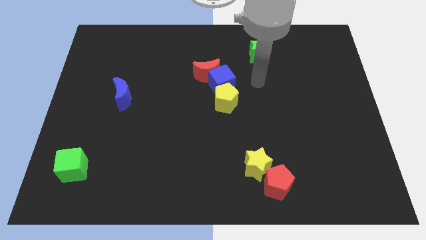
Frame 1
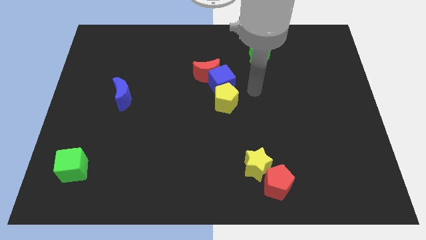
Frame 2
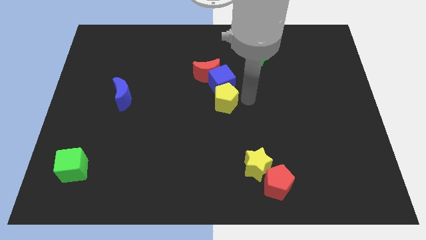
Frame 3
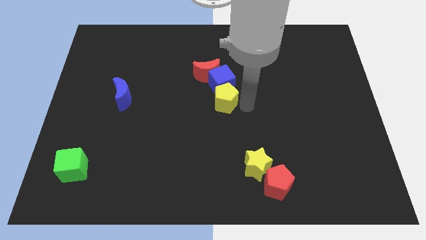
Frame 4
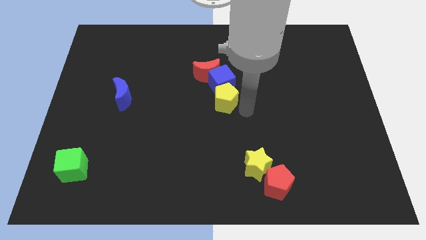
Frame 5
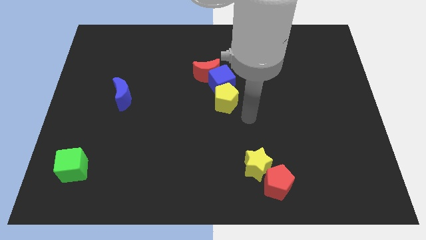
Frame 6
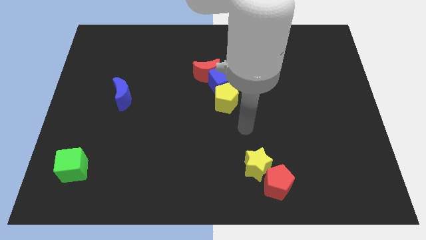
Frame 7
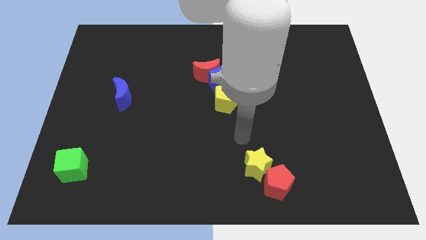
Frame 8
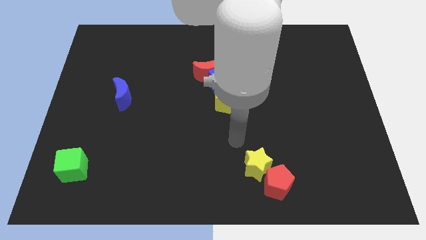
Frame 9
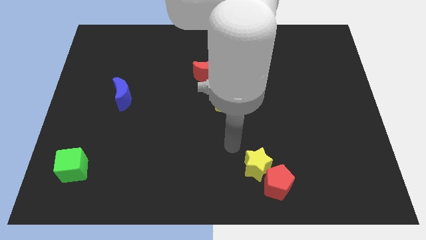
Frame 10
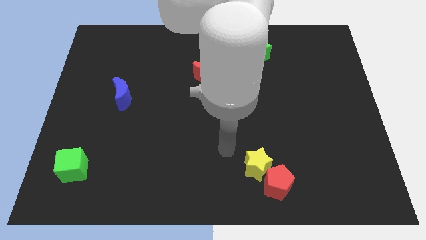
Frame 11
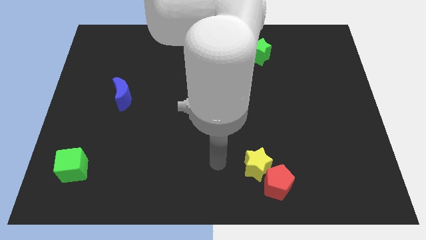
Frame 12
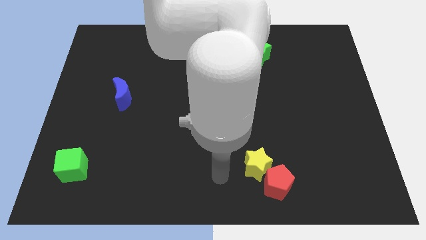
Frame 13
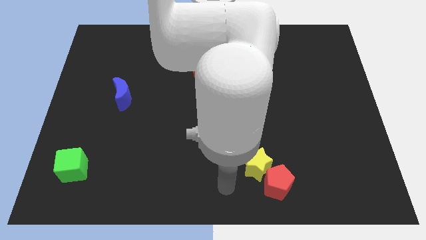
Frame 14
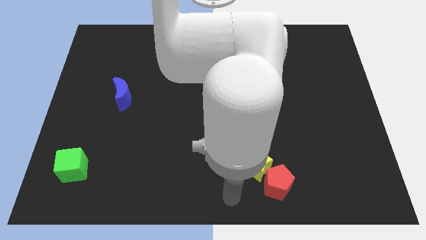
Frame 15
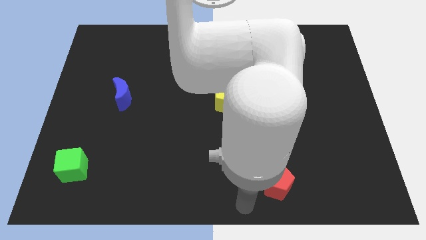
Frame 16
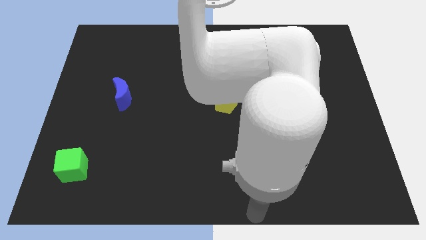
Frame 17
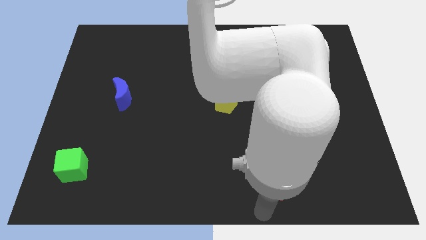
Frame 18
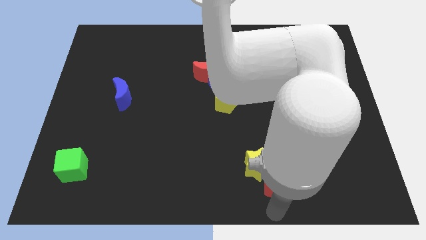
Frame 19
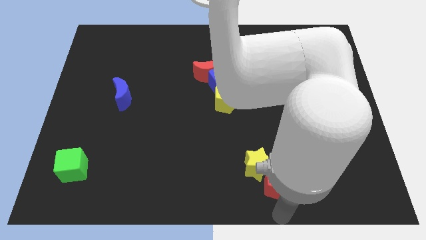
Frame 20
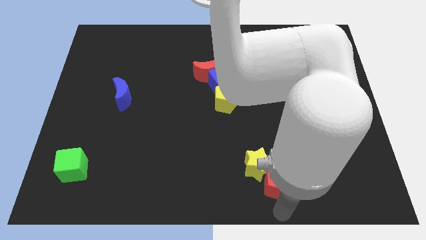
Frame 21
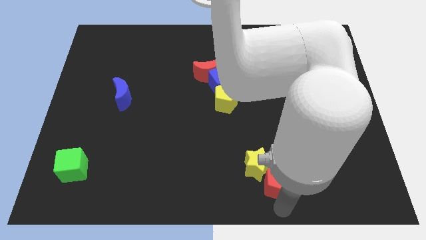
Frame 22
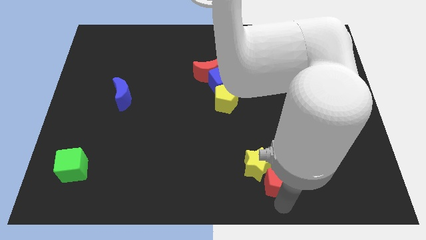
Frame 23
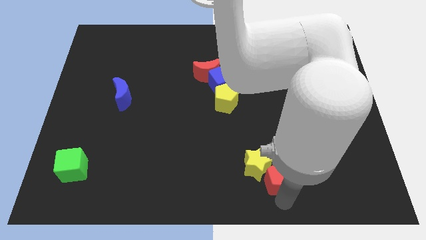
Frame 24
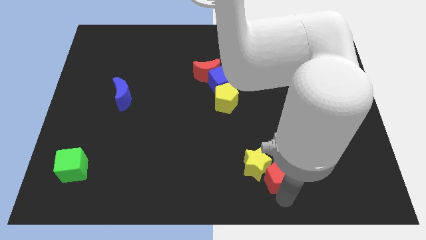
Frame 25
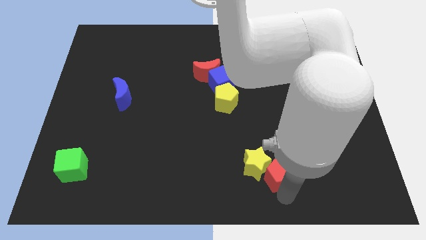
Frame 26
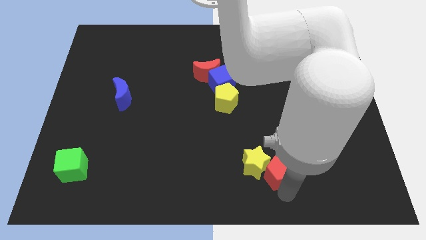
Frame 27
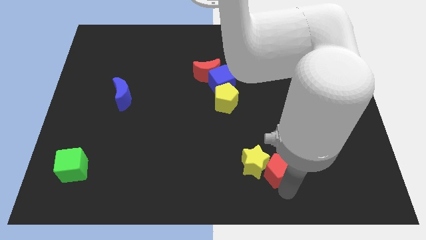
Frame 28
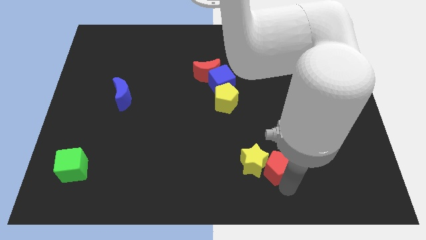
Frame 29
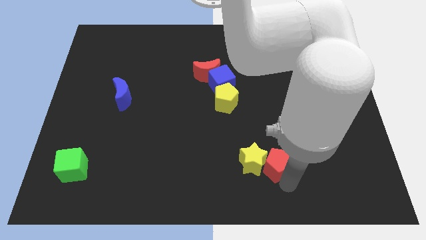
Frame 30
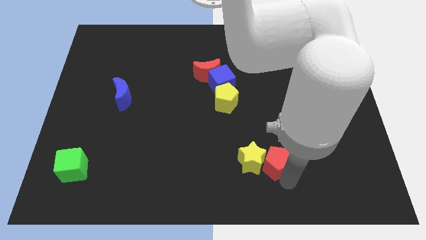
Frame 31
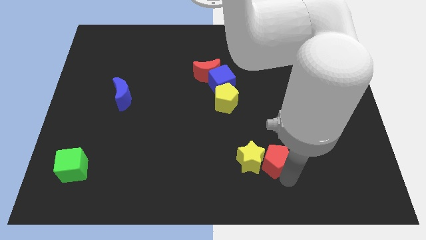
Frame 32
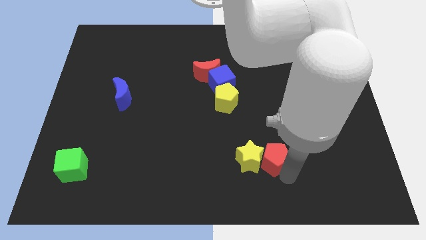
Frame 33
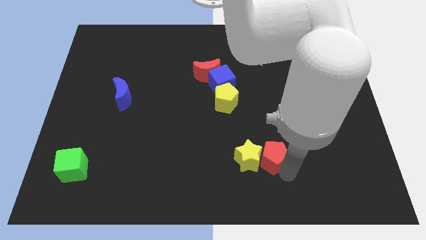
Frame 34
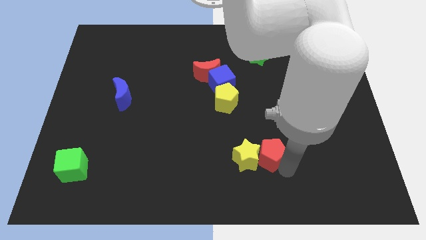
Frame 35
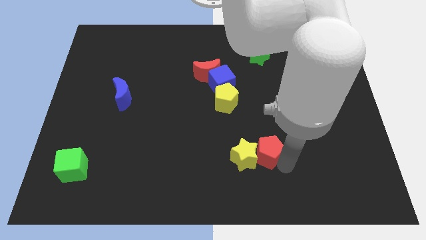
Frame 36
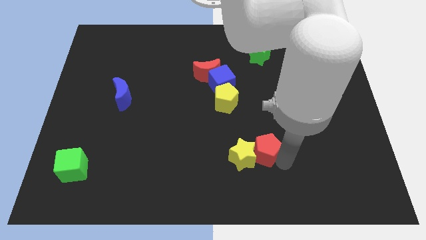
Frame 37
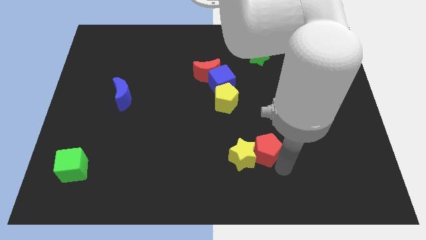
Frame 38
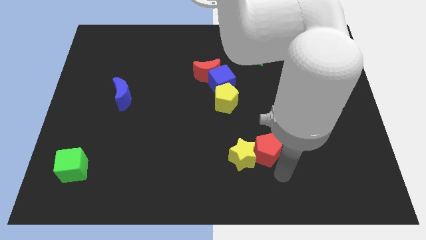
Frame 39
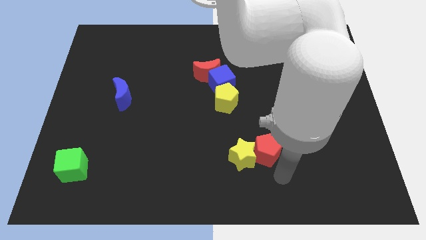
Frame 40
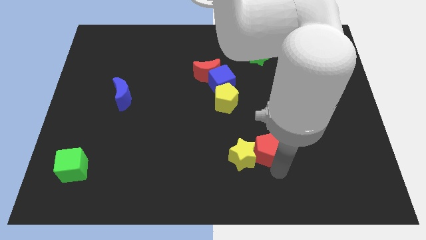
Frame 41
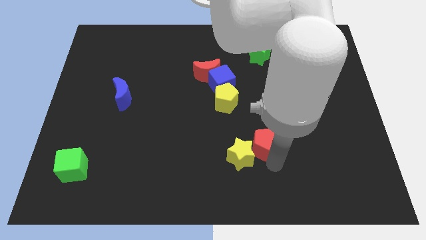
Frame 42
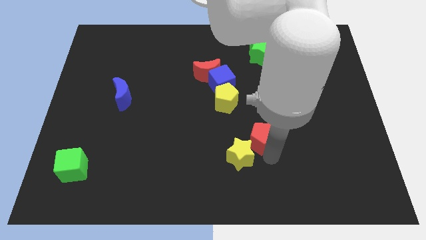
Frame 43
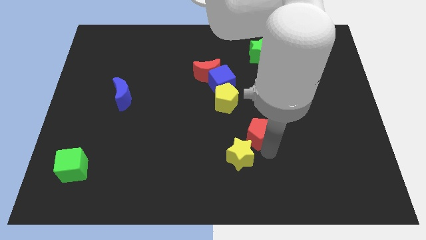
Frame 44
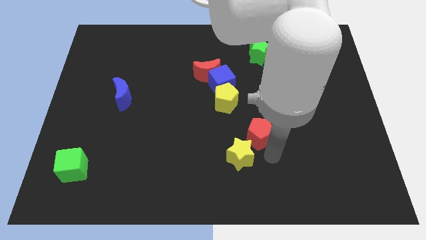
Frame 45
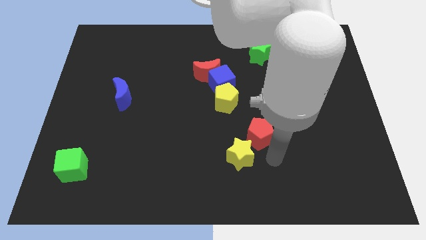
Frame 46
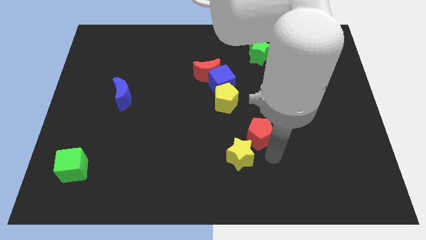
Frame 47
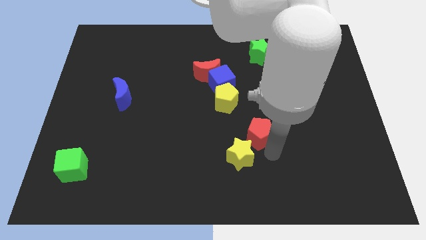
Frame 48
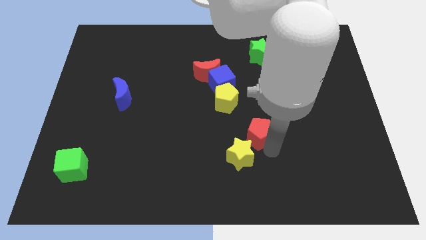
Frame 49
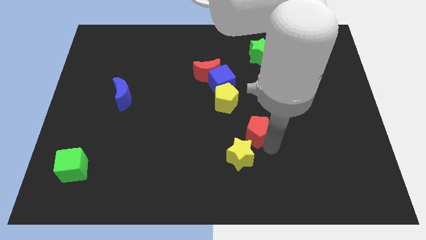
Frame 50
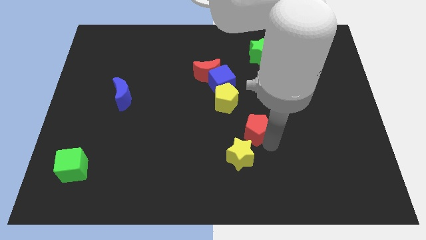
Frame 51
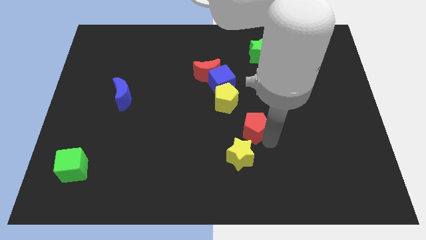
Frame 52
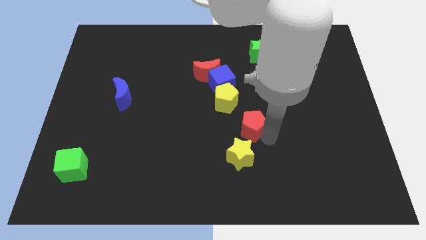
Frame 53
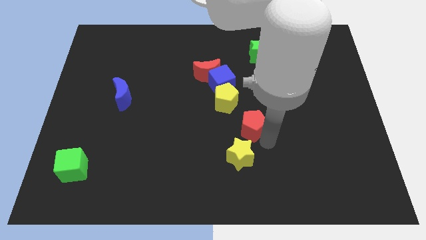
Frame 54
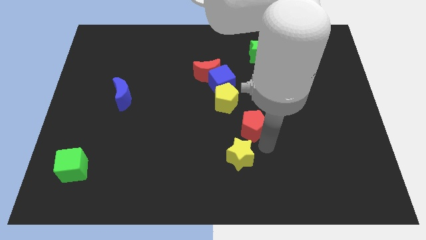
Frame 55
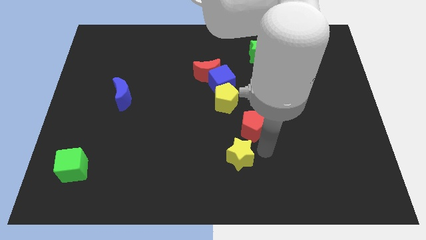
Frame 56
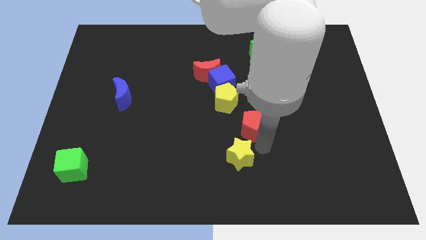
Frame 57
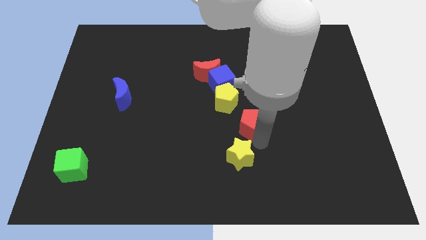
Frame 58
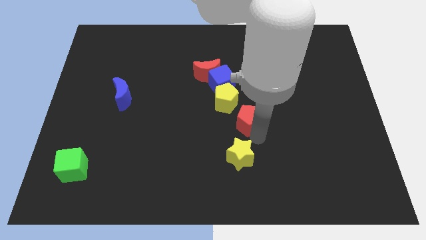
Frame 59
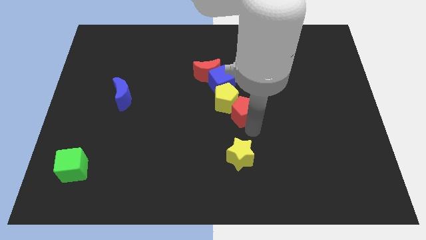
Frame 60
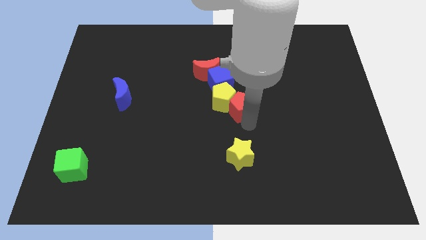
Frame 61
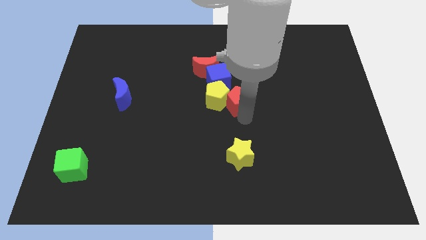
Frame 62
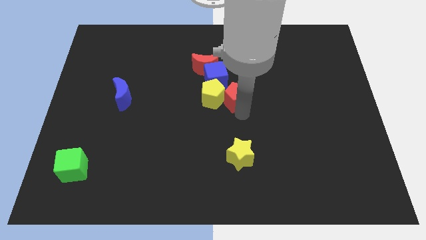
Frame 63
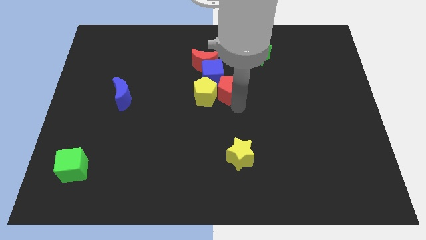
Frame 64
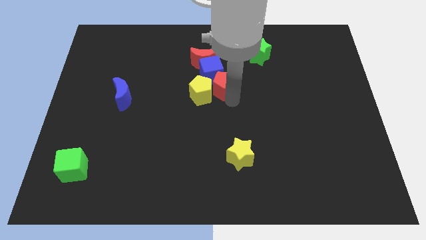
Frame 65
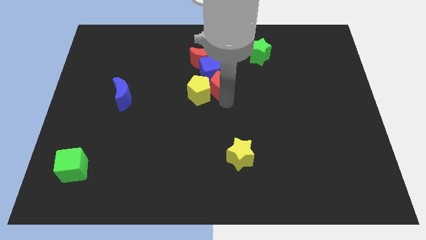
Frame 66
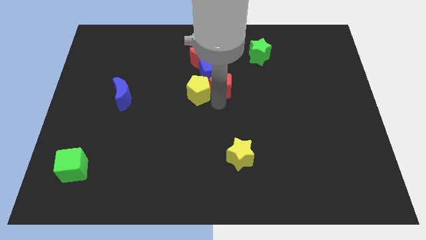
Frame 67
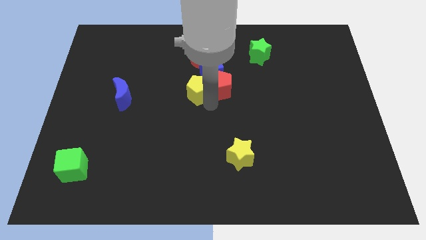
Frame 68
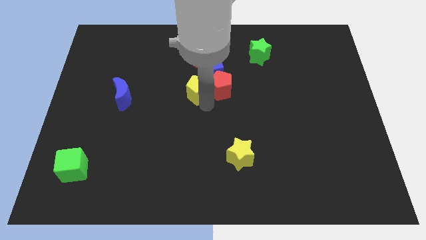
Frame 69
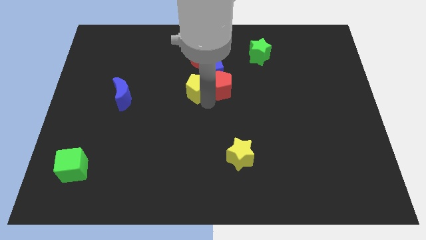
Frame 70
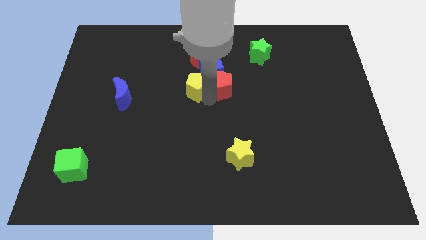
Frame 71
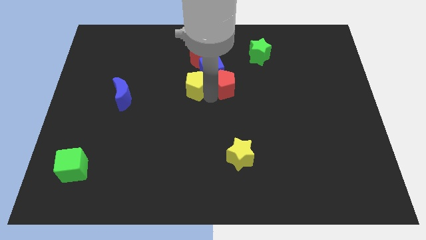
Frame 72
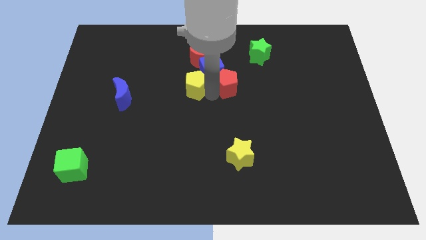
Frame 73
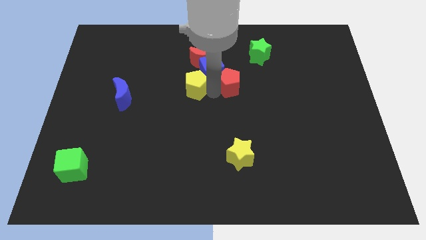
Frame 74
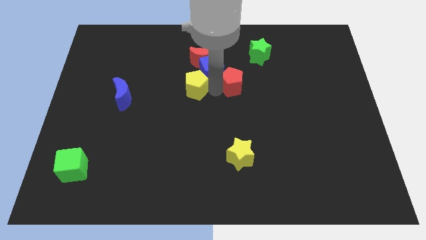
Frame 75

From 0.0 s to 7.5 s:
move the red pentagon to the bottom left of the green star
